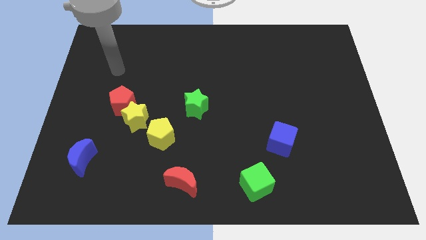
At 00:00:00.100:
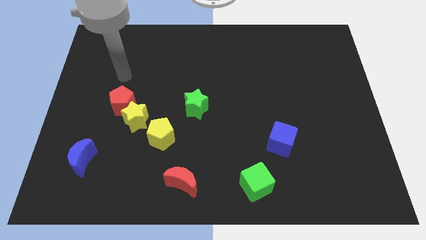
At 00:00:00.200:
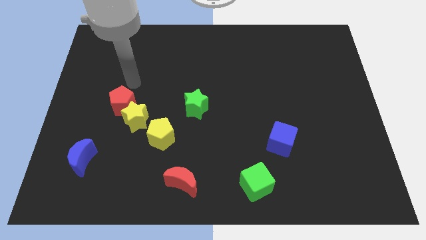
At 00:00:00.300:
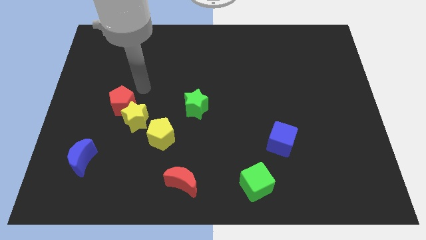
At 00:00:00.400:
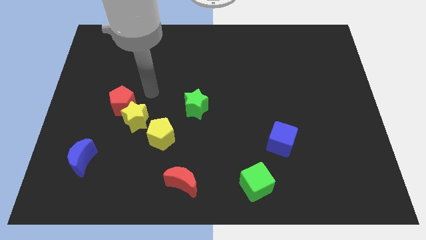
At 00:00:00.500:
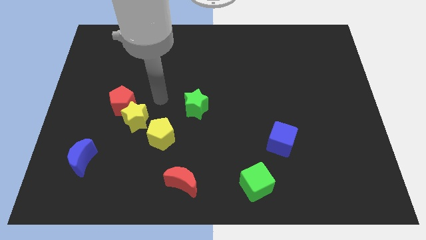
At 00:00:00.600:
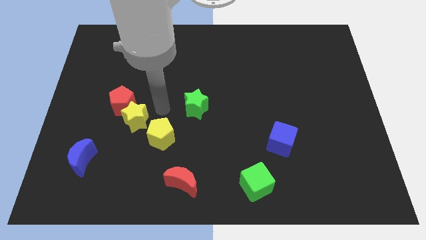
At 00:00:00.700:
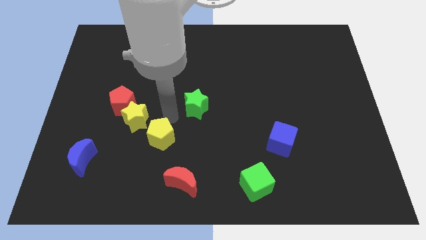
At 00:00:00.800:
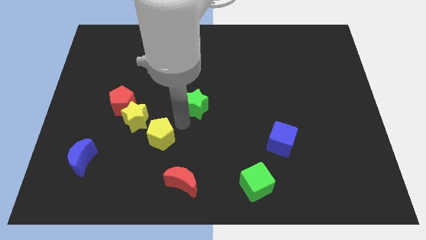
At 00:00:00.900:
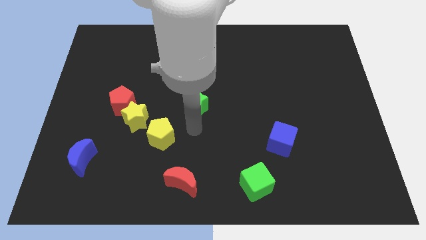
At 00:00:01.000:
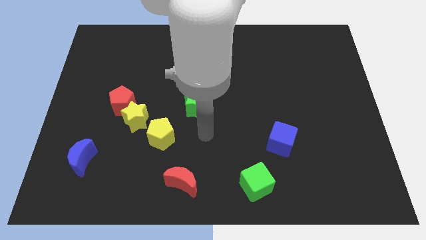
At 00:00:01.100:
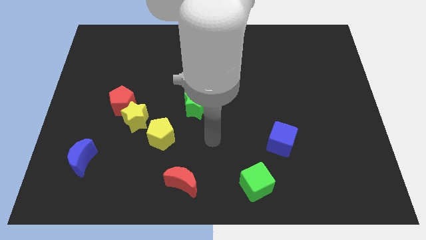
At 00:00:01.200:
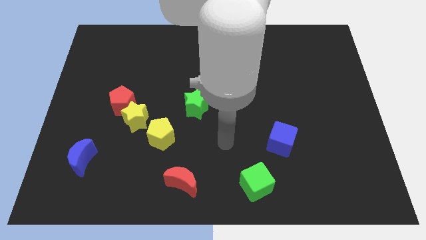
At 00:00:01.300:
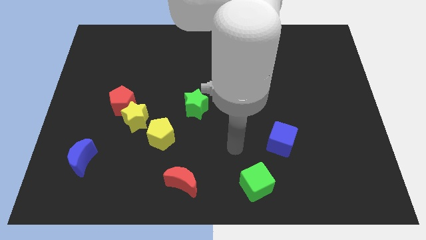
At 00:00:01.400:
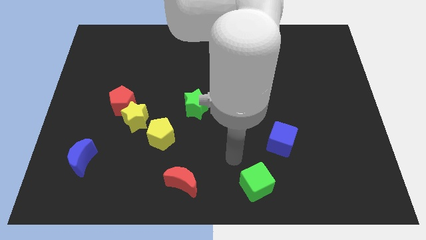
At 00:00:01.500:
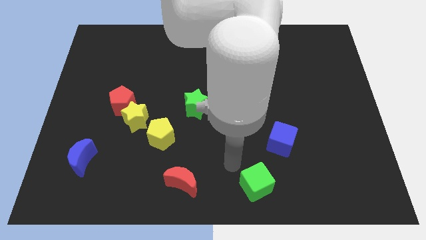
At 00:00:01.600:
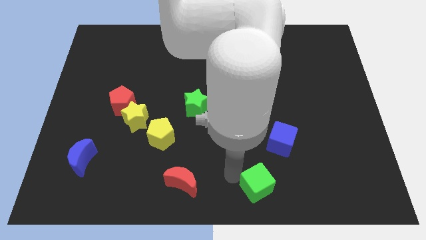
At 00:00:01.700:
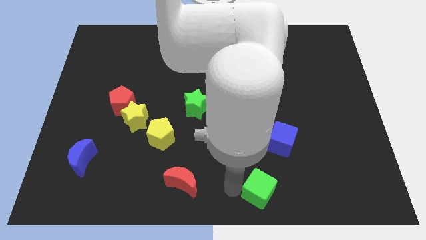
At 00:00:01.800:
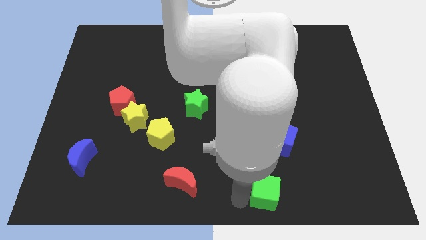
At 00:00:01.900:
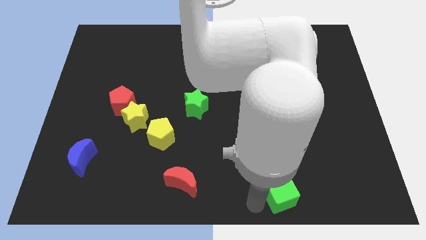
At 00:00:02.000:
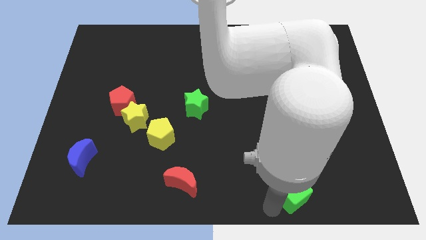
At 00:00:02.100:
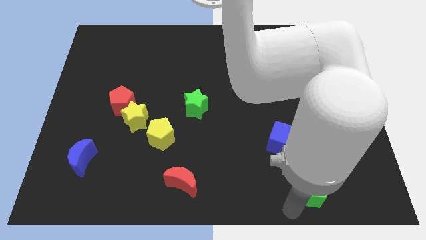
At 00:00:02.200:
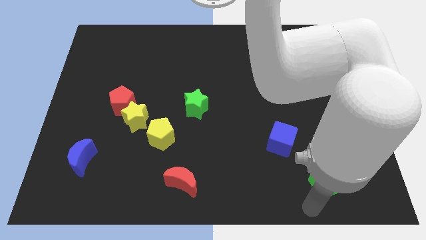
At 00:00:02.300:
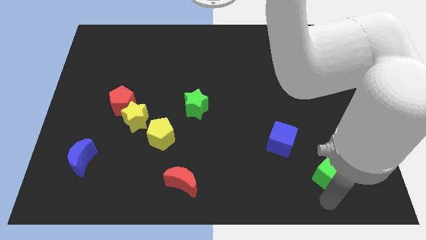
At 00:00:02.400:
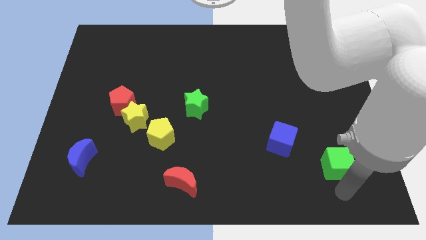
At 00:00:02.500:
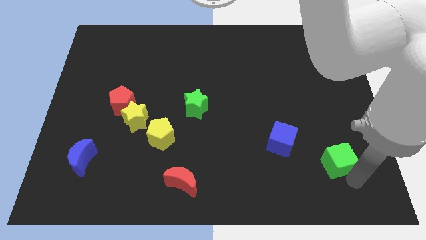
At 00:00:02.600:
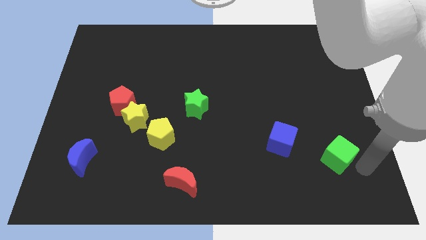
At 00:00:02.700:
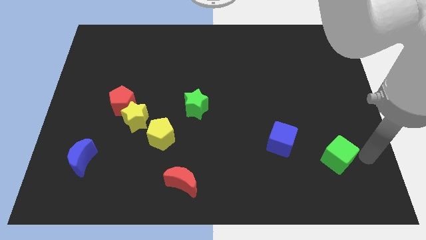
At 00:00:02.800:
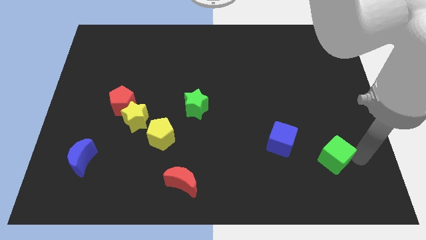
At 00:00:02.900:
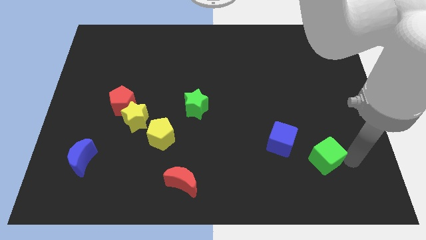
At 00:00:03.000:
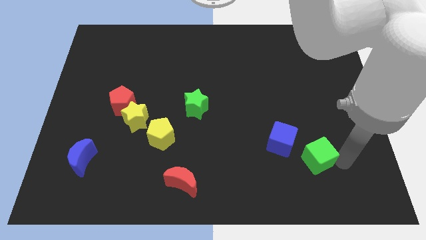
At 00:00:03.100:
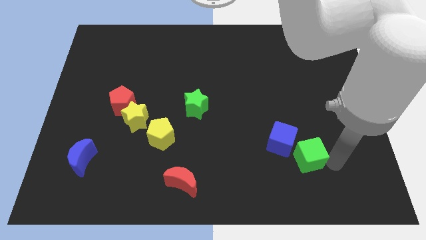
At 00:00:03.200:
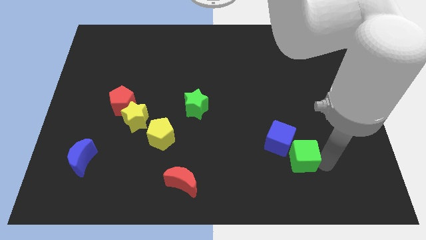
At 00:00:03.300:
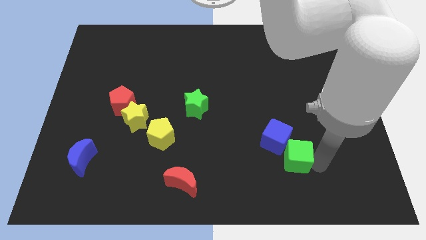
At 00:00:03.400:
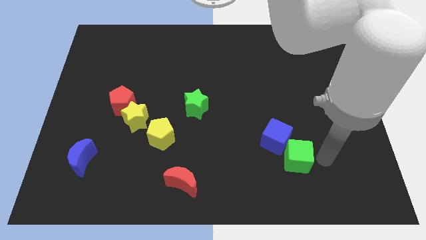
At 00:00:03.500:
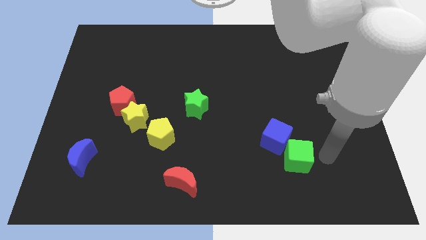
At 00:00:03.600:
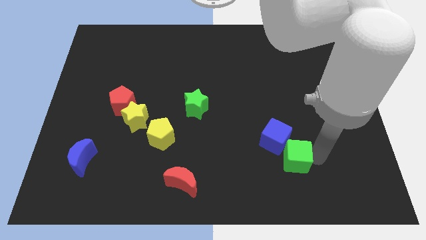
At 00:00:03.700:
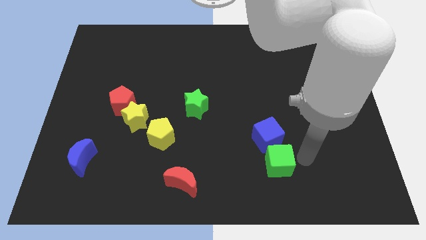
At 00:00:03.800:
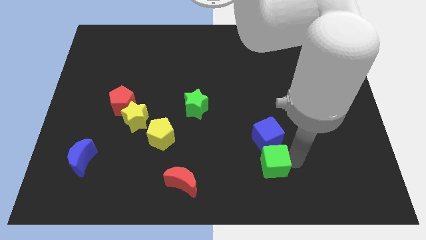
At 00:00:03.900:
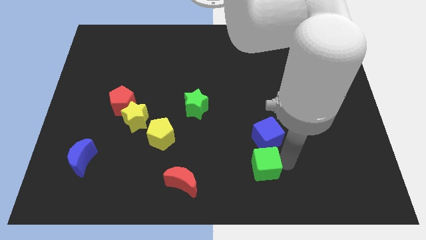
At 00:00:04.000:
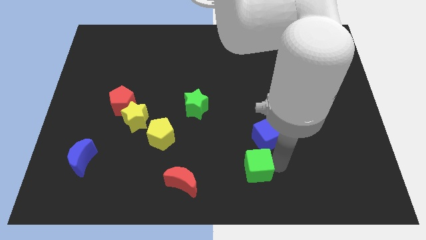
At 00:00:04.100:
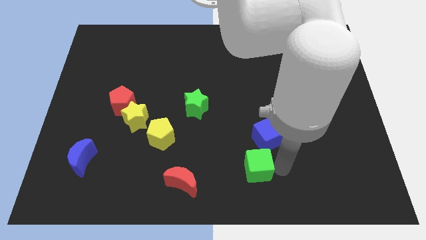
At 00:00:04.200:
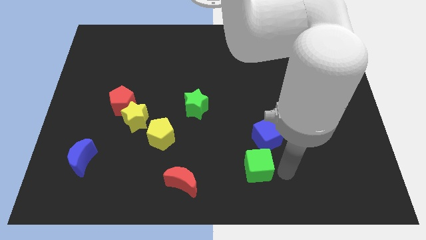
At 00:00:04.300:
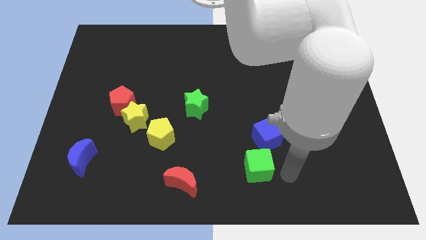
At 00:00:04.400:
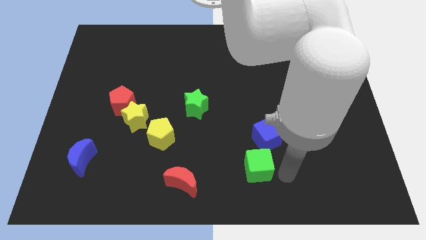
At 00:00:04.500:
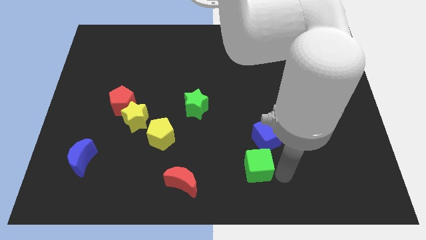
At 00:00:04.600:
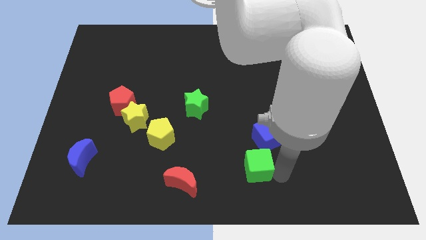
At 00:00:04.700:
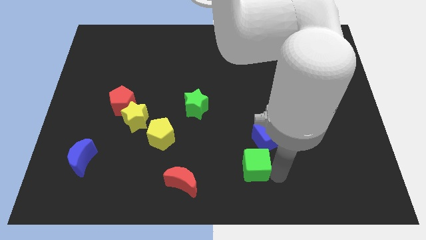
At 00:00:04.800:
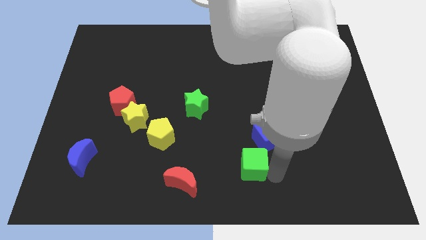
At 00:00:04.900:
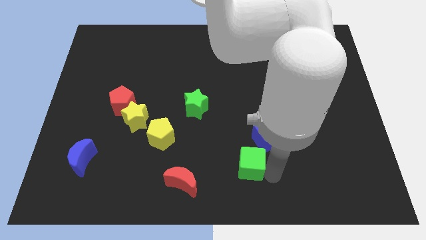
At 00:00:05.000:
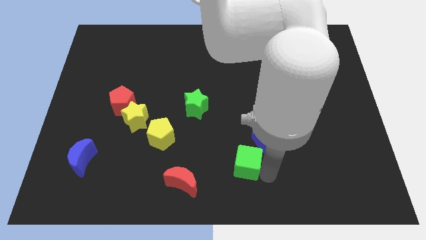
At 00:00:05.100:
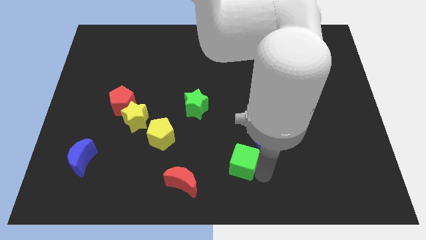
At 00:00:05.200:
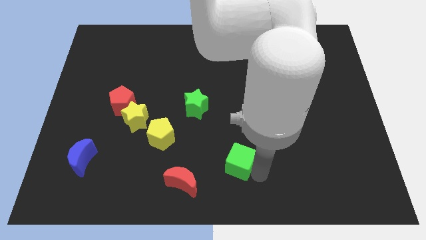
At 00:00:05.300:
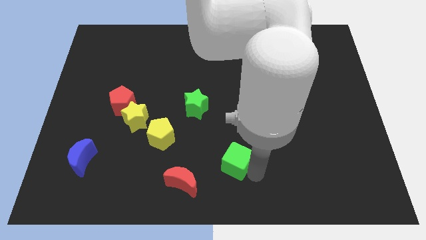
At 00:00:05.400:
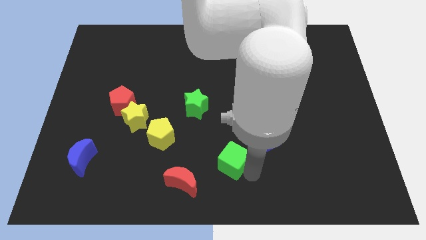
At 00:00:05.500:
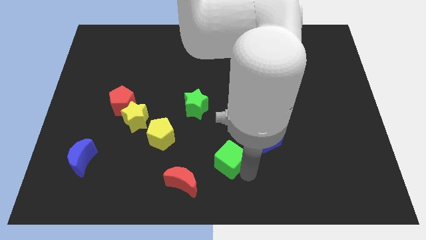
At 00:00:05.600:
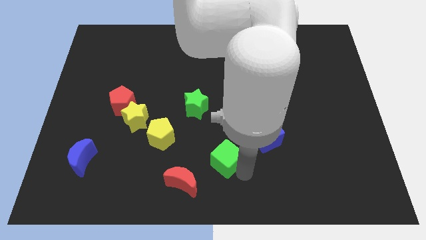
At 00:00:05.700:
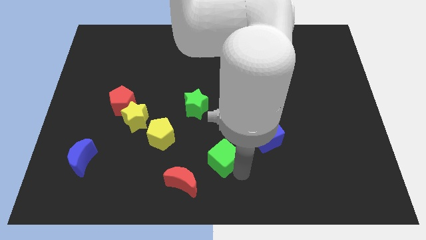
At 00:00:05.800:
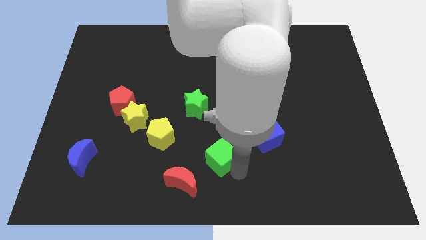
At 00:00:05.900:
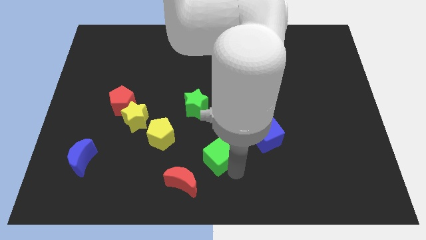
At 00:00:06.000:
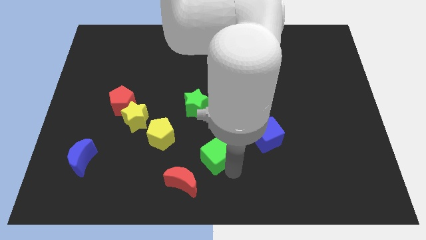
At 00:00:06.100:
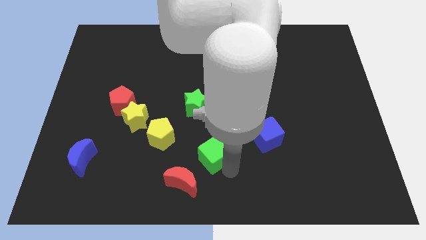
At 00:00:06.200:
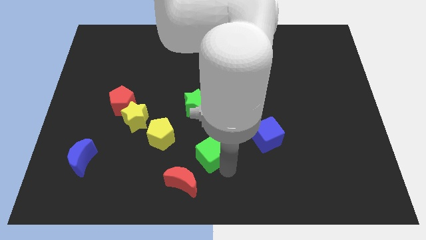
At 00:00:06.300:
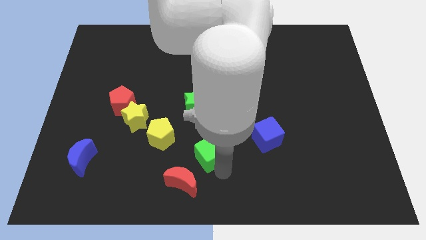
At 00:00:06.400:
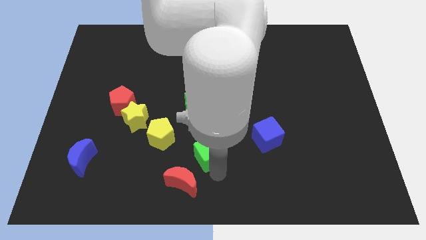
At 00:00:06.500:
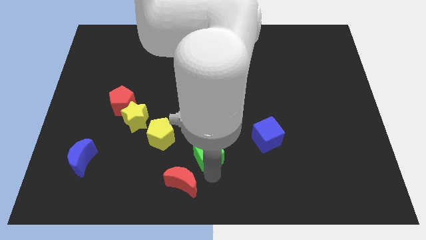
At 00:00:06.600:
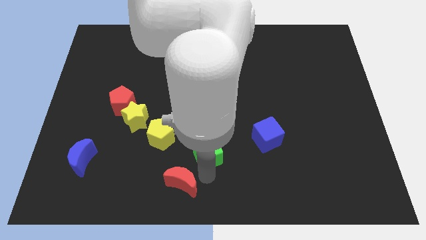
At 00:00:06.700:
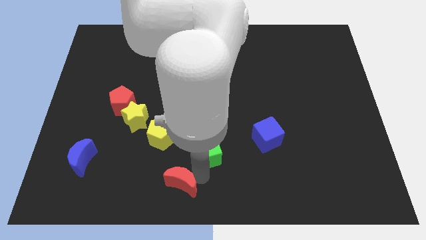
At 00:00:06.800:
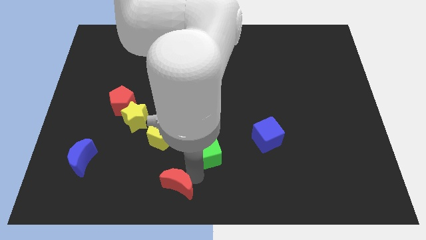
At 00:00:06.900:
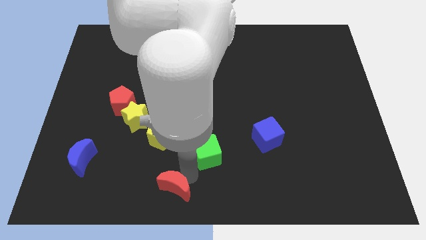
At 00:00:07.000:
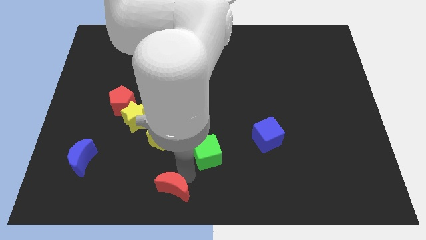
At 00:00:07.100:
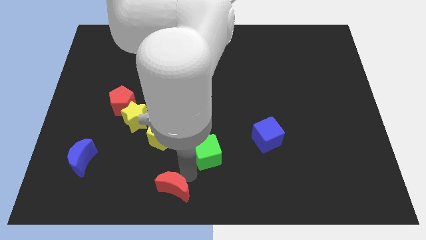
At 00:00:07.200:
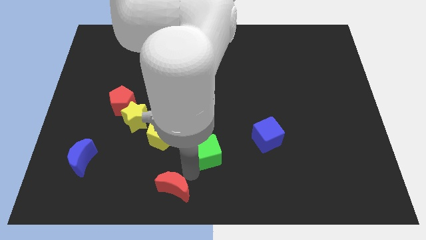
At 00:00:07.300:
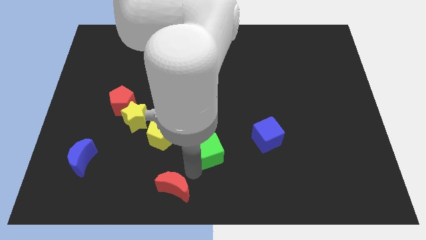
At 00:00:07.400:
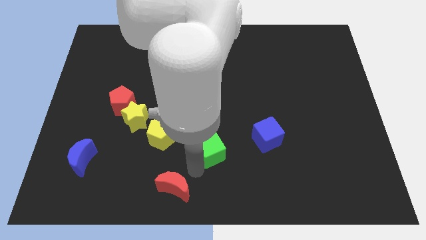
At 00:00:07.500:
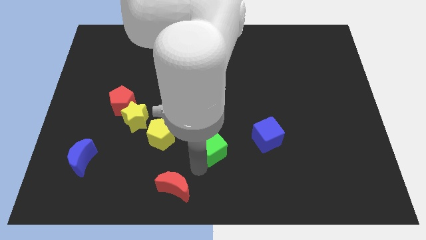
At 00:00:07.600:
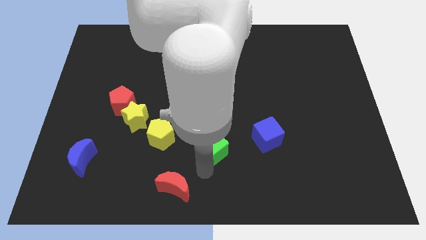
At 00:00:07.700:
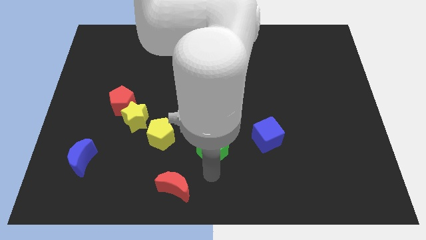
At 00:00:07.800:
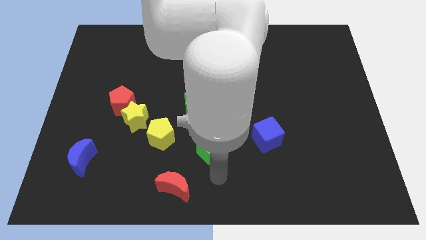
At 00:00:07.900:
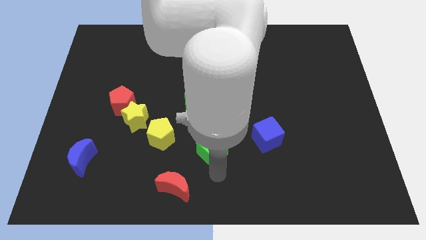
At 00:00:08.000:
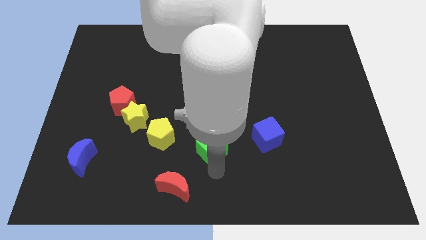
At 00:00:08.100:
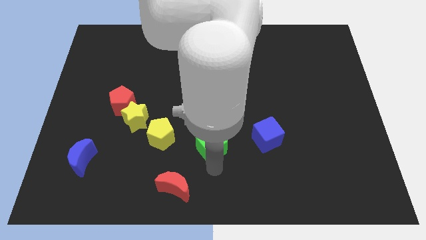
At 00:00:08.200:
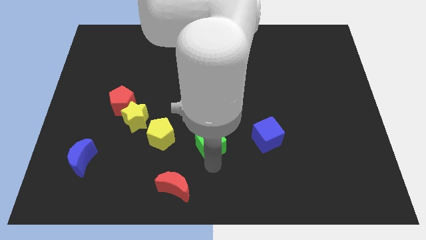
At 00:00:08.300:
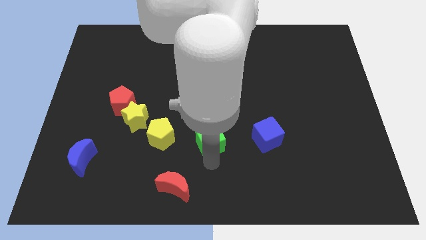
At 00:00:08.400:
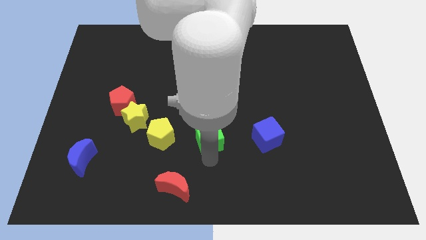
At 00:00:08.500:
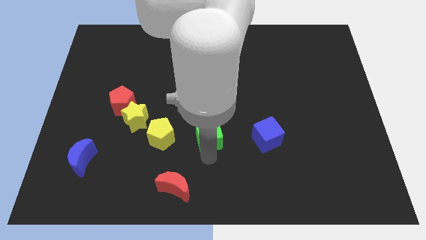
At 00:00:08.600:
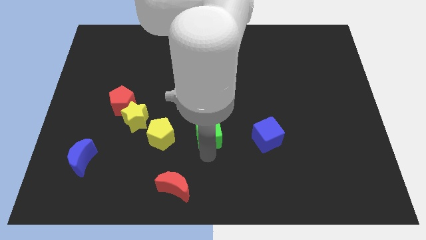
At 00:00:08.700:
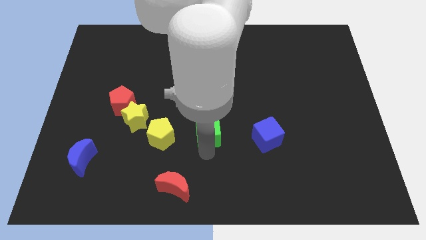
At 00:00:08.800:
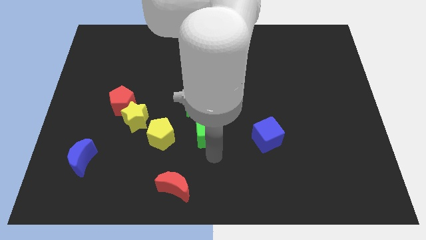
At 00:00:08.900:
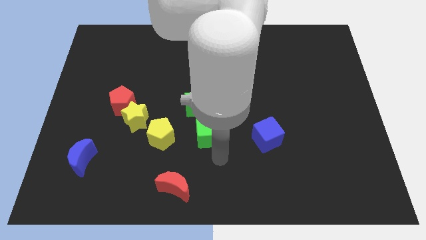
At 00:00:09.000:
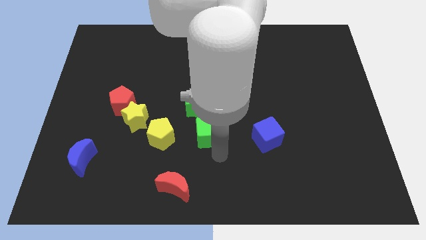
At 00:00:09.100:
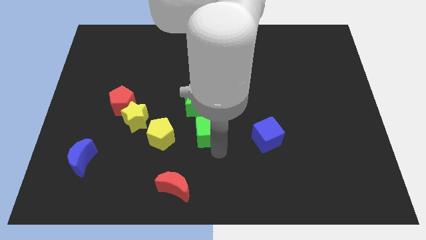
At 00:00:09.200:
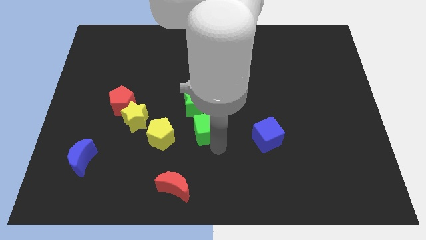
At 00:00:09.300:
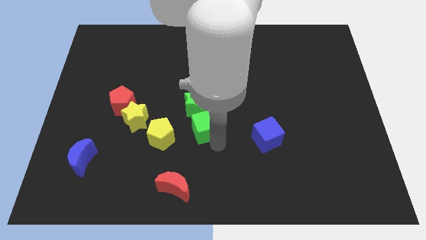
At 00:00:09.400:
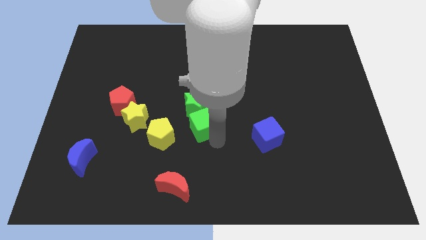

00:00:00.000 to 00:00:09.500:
push the green cube towards the green star
